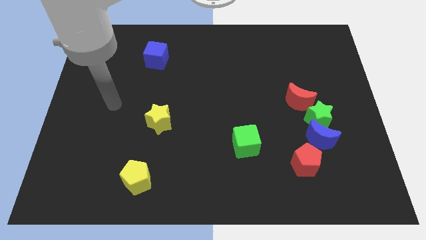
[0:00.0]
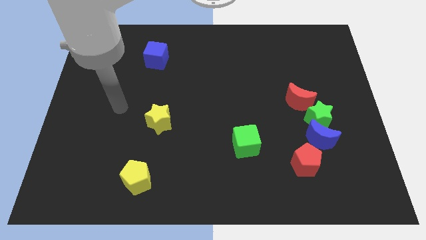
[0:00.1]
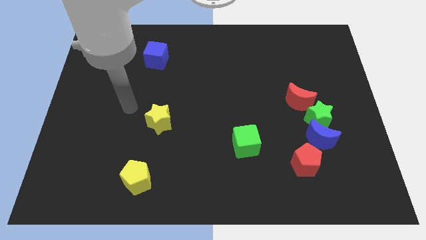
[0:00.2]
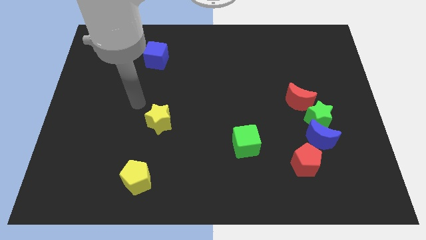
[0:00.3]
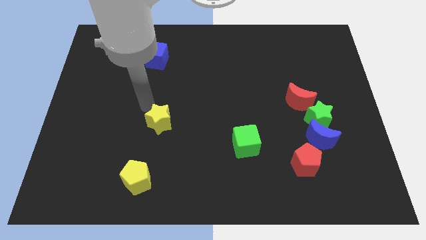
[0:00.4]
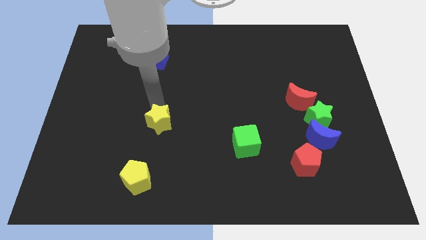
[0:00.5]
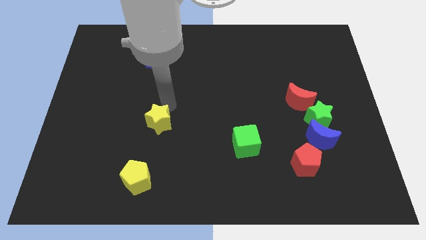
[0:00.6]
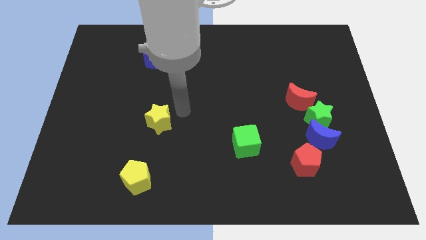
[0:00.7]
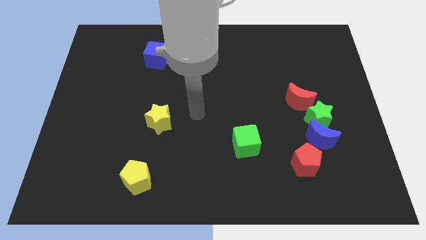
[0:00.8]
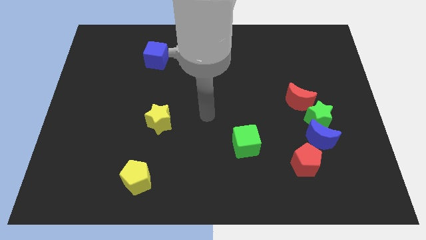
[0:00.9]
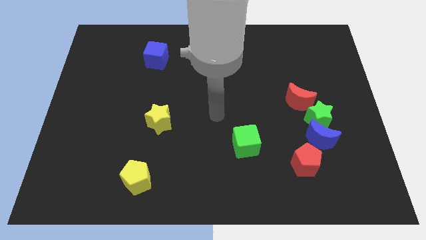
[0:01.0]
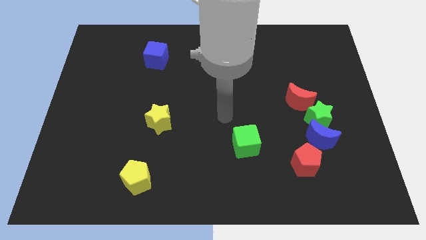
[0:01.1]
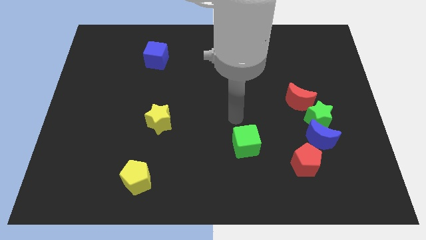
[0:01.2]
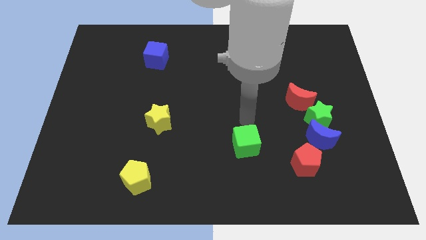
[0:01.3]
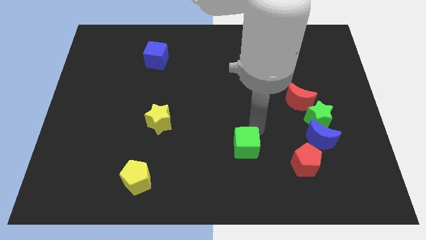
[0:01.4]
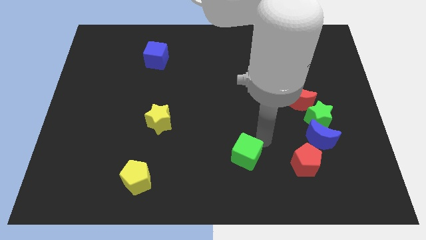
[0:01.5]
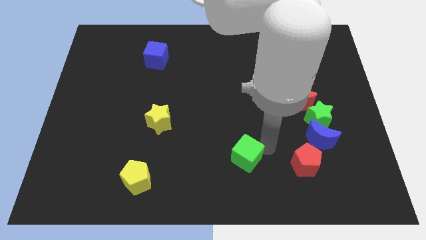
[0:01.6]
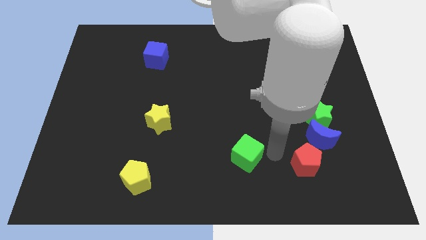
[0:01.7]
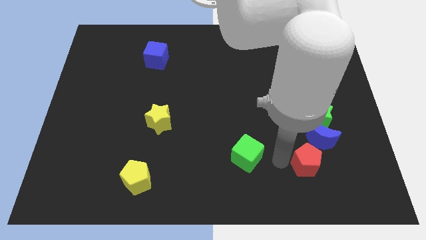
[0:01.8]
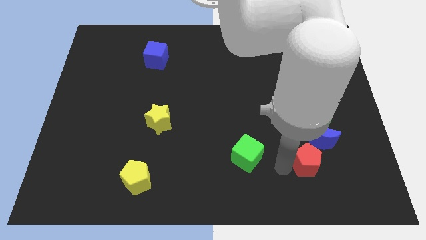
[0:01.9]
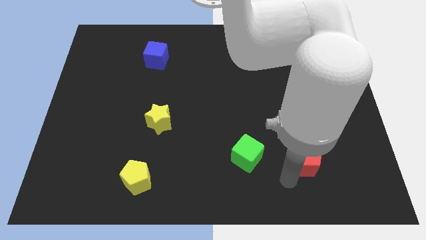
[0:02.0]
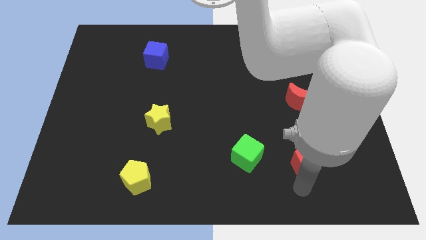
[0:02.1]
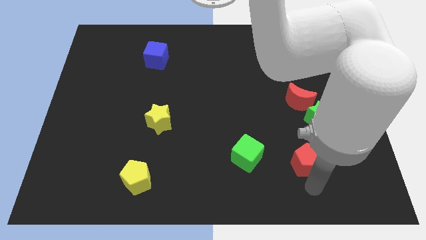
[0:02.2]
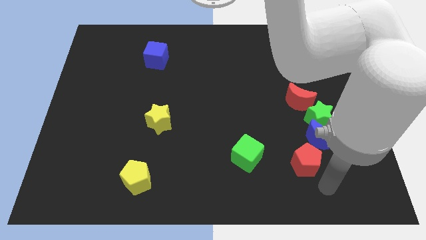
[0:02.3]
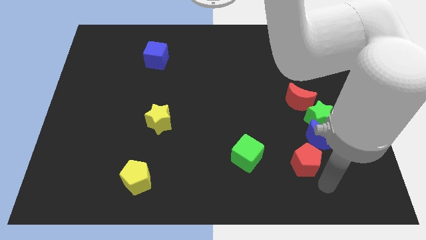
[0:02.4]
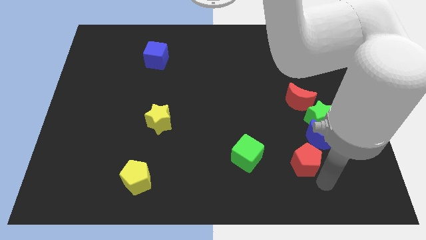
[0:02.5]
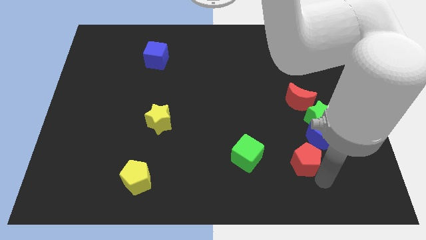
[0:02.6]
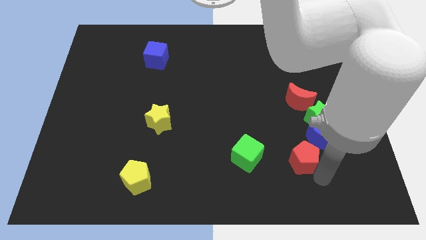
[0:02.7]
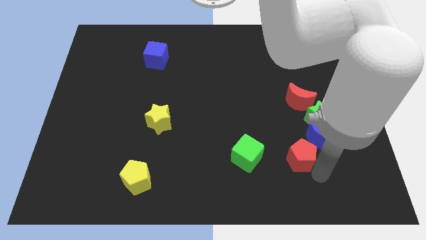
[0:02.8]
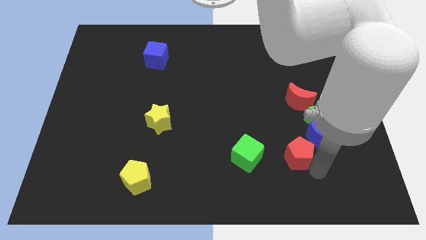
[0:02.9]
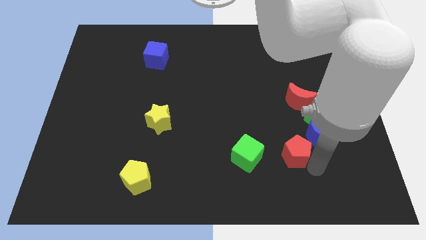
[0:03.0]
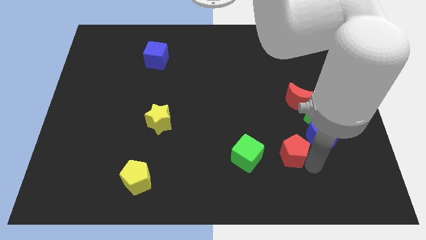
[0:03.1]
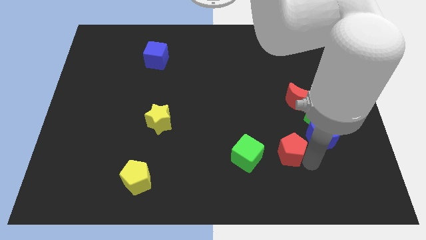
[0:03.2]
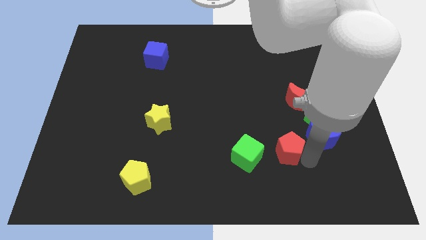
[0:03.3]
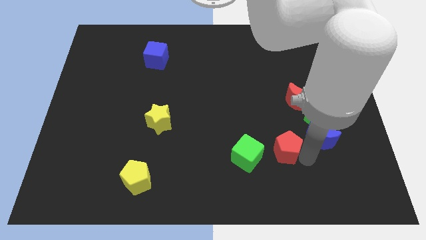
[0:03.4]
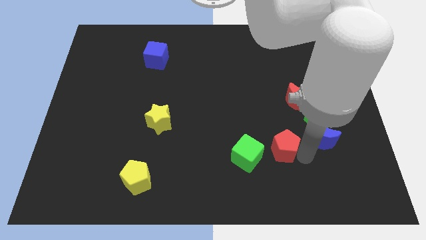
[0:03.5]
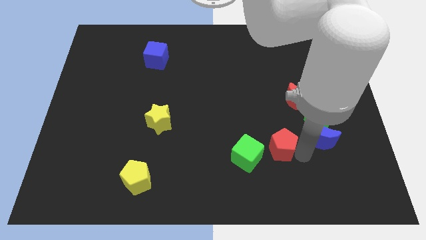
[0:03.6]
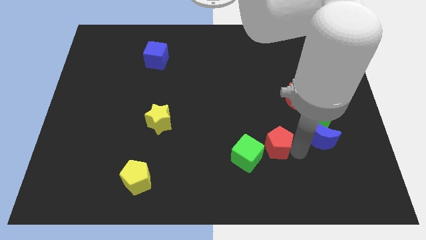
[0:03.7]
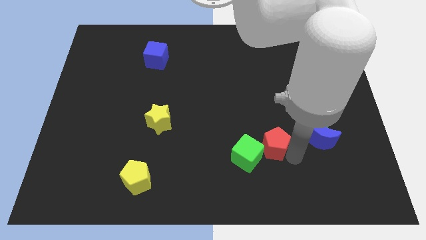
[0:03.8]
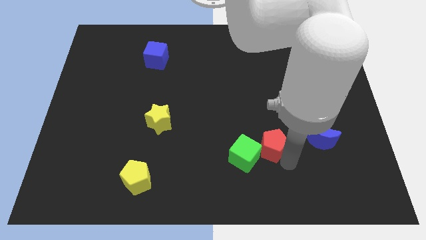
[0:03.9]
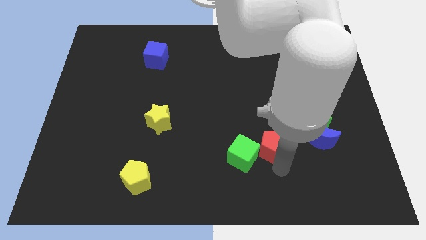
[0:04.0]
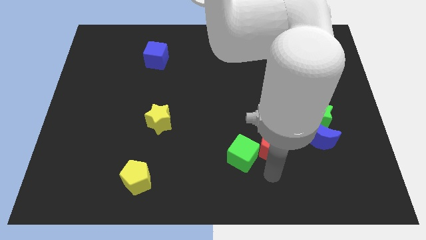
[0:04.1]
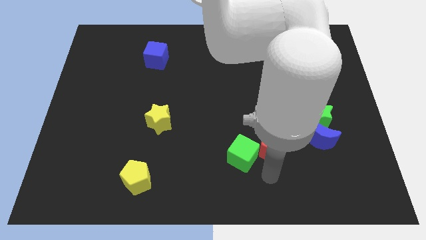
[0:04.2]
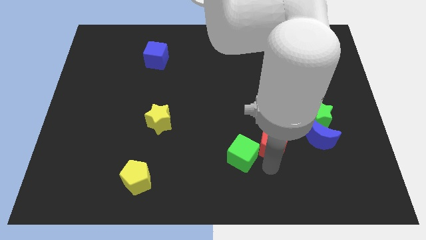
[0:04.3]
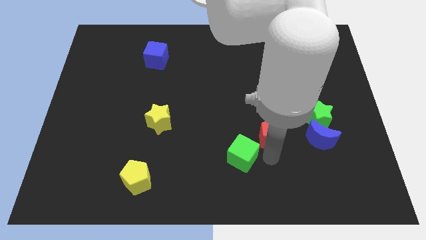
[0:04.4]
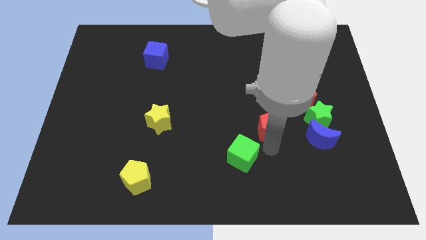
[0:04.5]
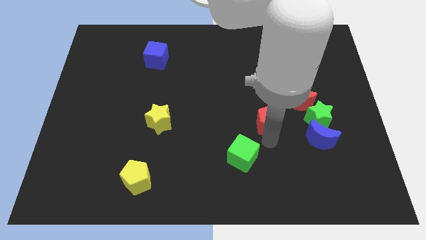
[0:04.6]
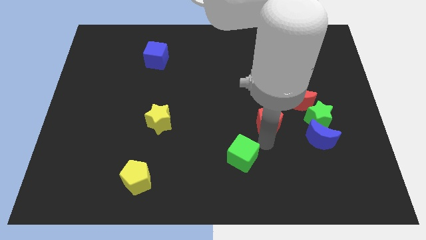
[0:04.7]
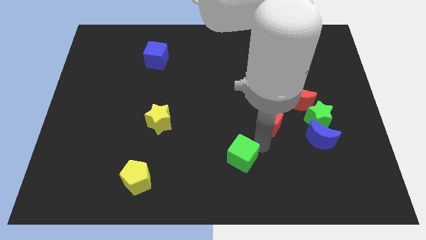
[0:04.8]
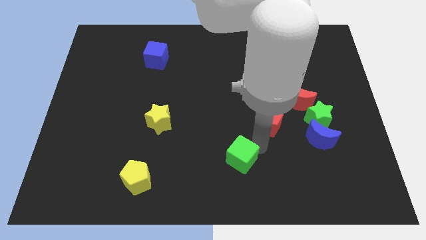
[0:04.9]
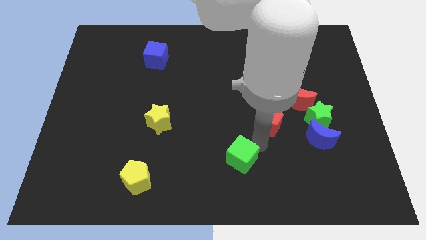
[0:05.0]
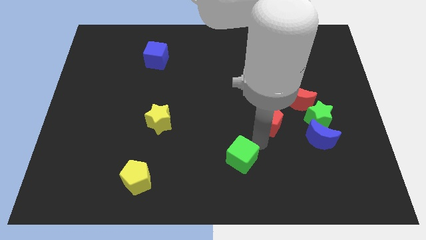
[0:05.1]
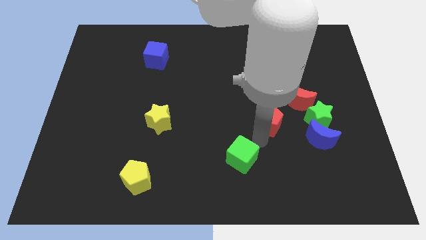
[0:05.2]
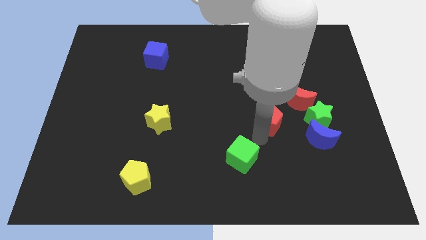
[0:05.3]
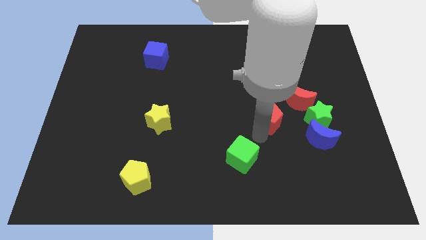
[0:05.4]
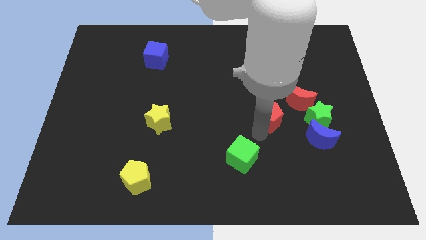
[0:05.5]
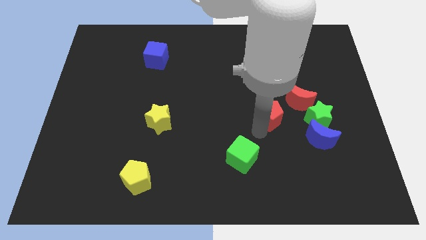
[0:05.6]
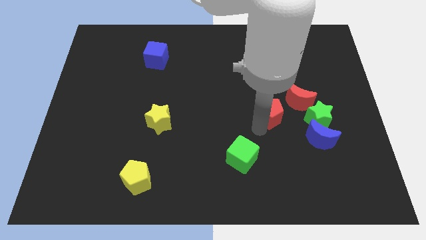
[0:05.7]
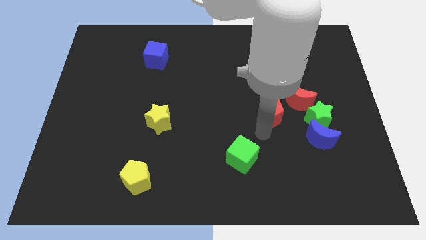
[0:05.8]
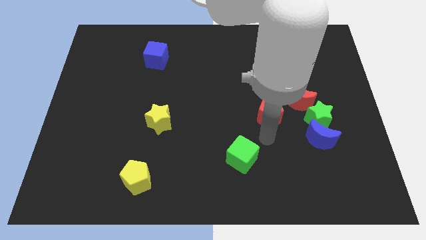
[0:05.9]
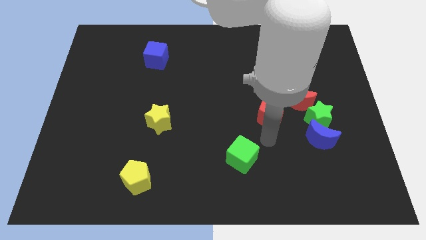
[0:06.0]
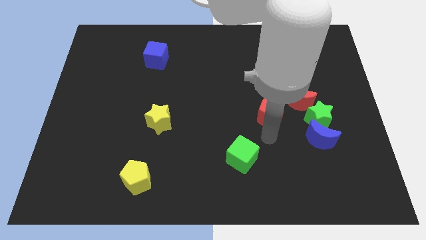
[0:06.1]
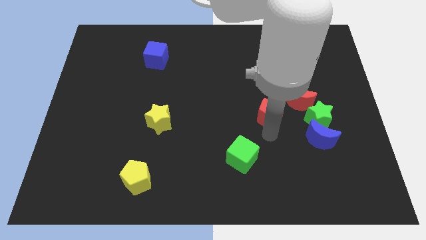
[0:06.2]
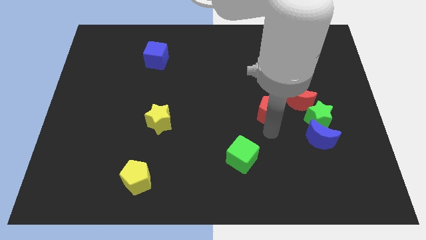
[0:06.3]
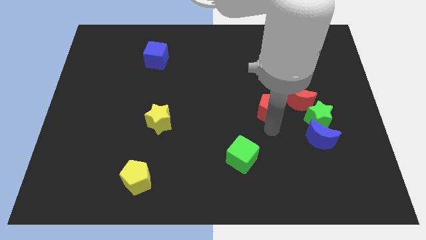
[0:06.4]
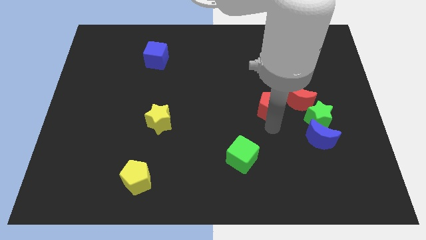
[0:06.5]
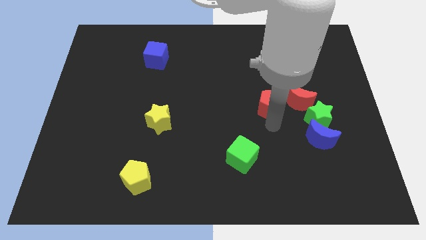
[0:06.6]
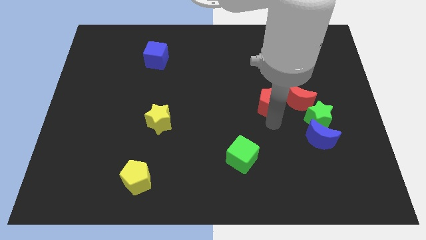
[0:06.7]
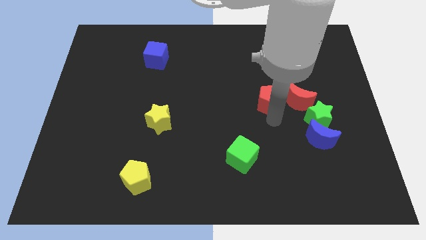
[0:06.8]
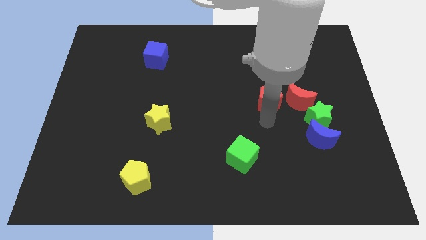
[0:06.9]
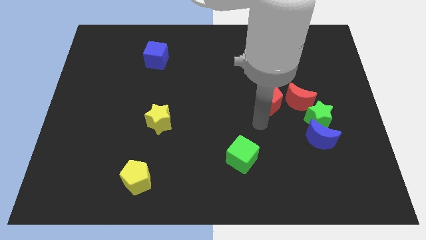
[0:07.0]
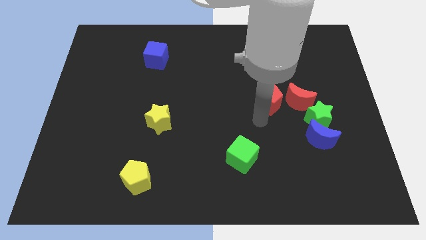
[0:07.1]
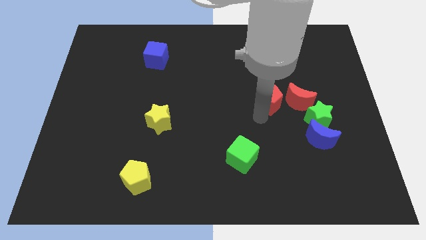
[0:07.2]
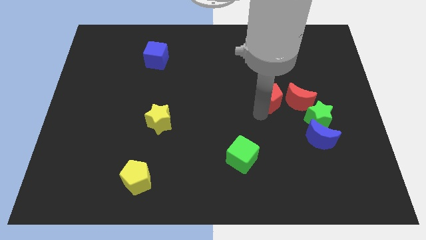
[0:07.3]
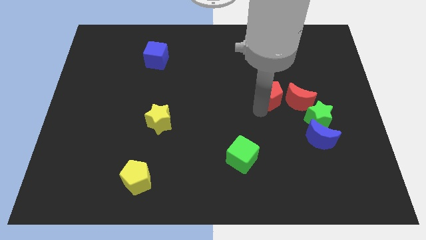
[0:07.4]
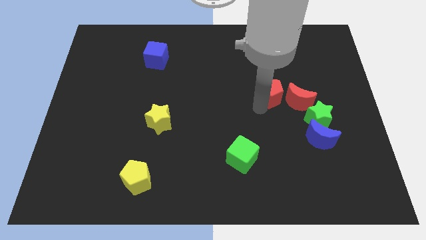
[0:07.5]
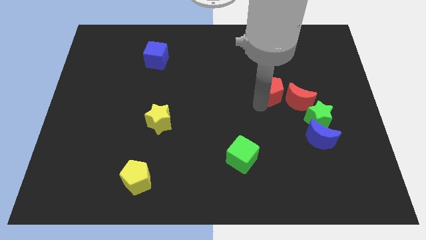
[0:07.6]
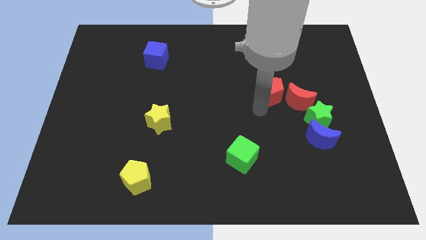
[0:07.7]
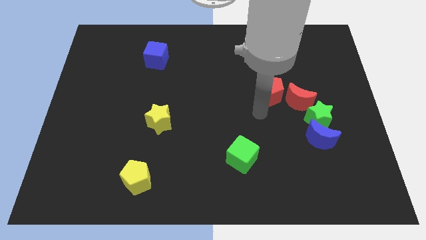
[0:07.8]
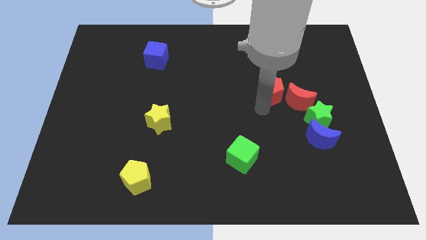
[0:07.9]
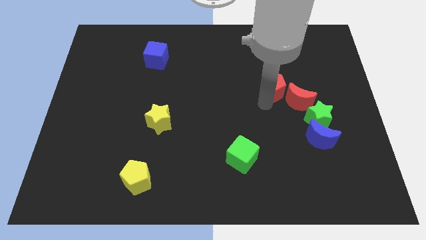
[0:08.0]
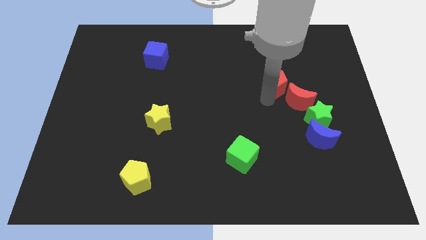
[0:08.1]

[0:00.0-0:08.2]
slide the red pentagon up

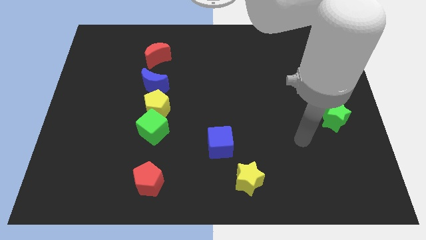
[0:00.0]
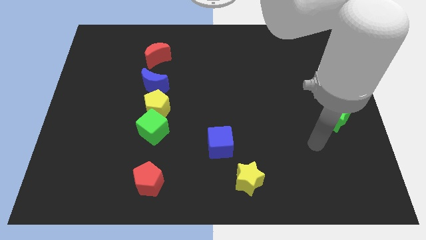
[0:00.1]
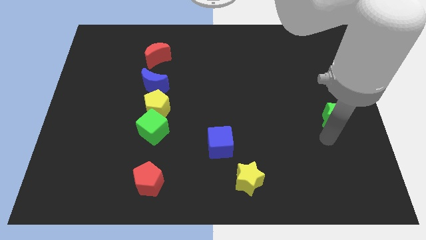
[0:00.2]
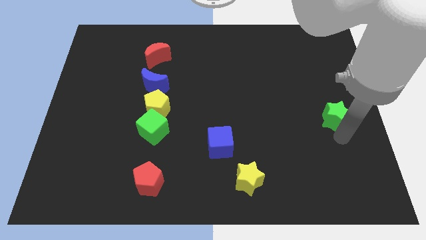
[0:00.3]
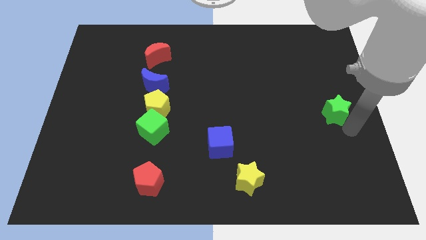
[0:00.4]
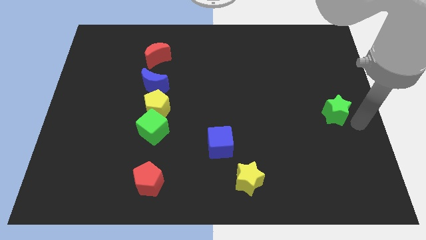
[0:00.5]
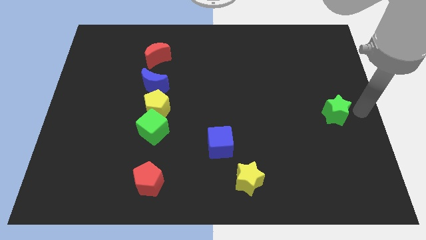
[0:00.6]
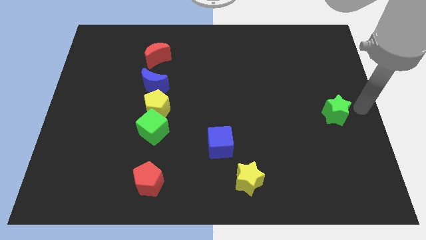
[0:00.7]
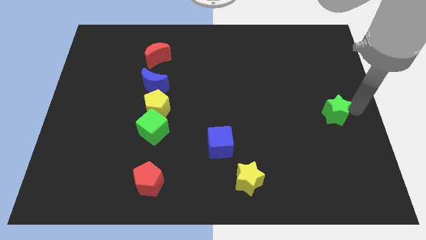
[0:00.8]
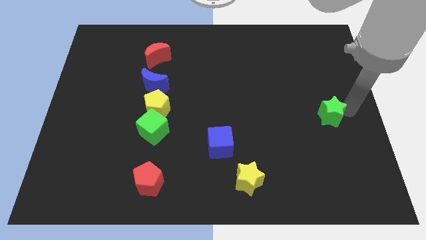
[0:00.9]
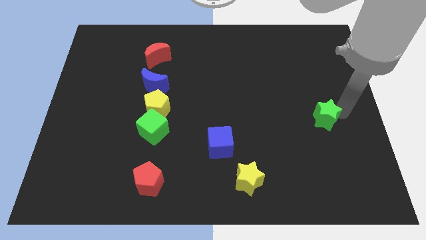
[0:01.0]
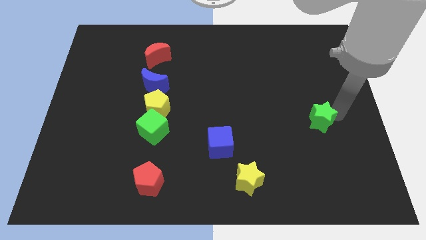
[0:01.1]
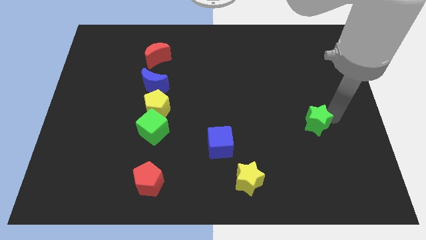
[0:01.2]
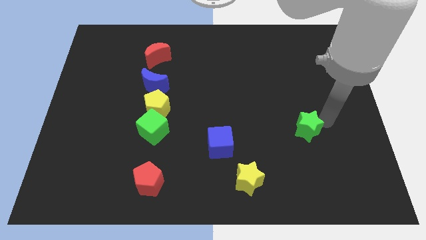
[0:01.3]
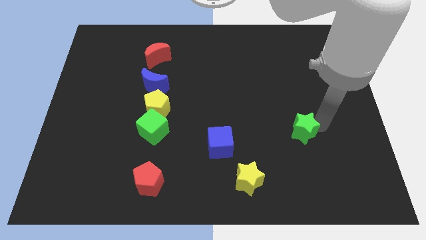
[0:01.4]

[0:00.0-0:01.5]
slide the green star a little to the left
